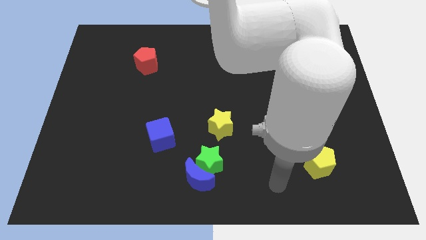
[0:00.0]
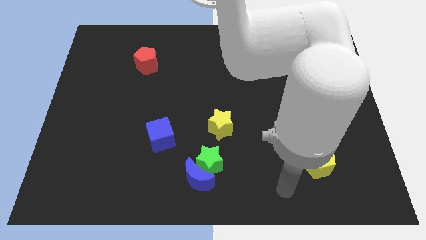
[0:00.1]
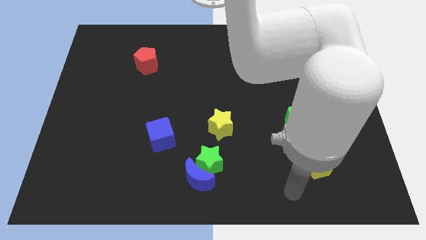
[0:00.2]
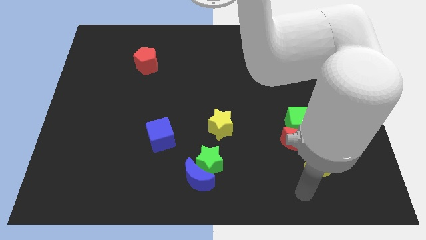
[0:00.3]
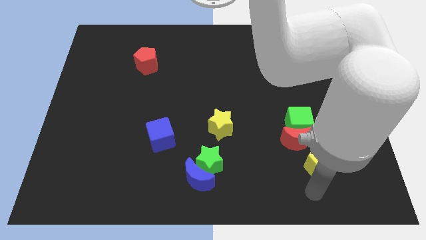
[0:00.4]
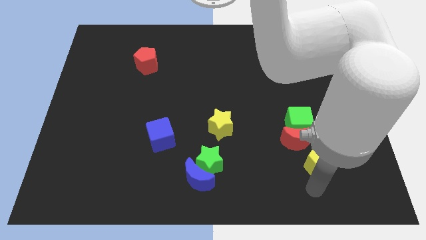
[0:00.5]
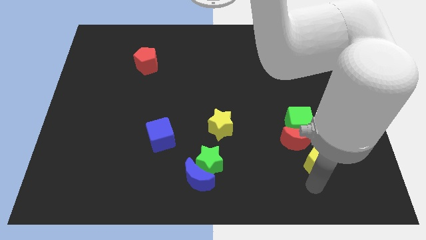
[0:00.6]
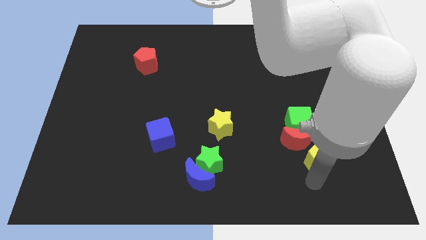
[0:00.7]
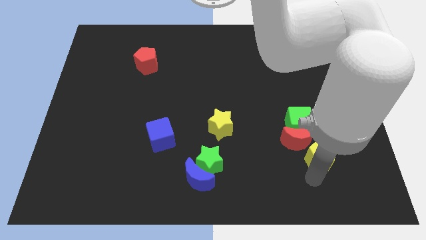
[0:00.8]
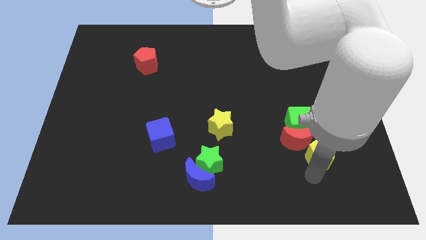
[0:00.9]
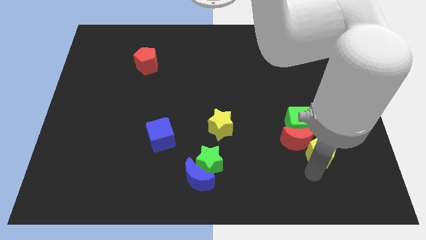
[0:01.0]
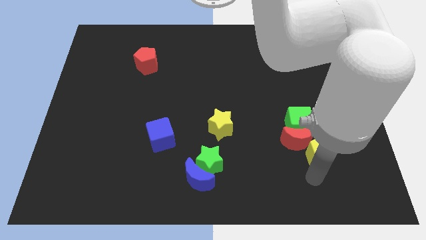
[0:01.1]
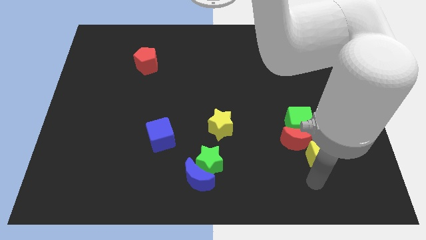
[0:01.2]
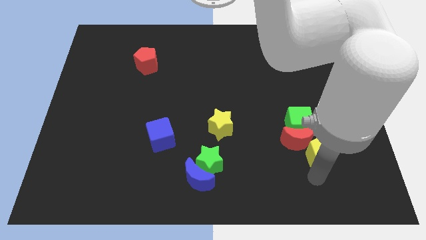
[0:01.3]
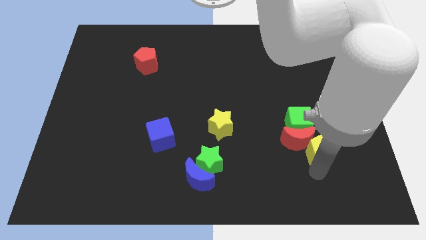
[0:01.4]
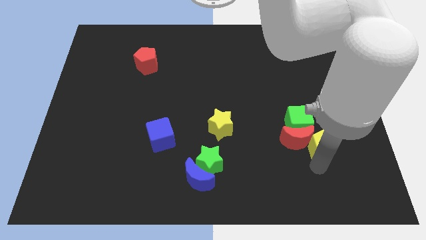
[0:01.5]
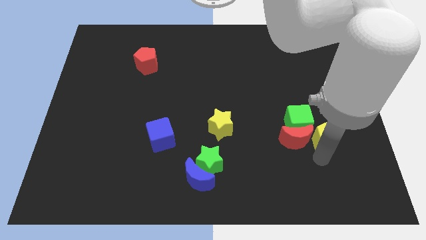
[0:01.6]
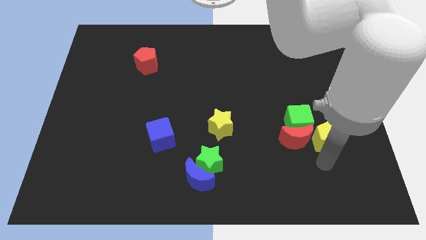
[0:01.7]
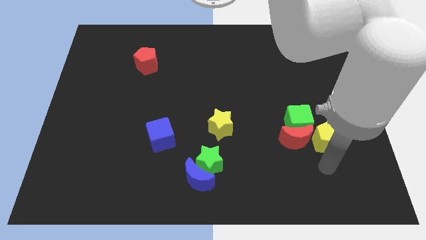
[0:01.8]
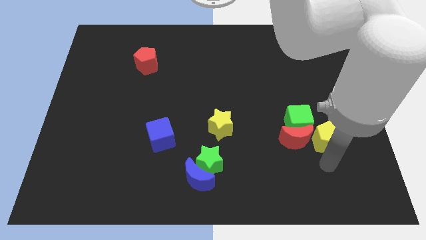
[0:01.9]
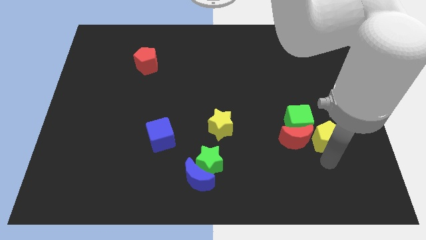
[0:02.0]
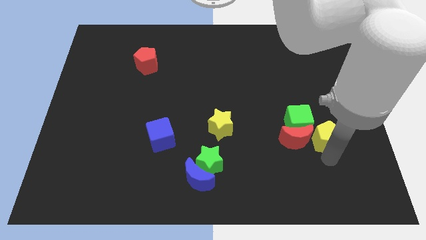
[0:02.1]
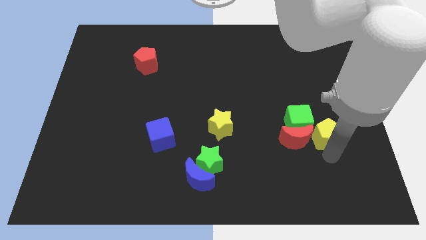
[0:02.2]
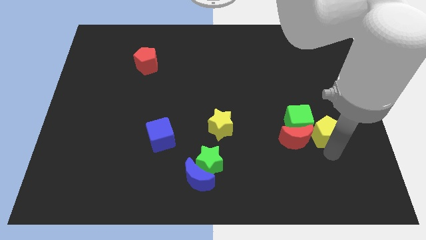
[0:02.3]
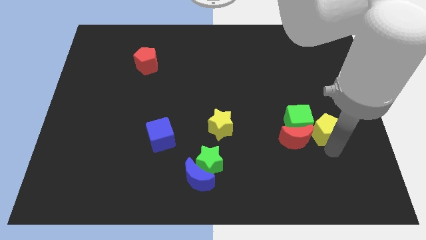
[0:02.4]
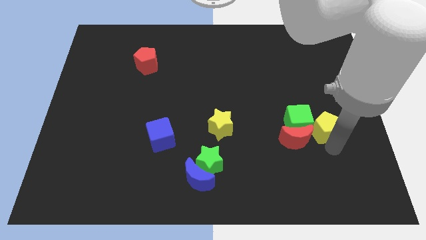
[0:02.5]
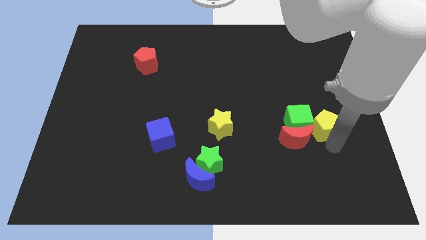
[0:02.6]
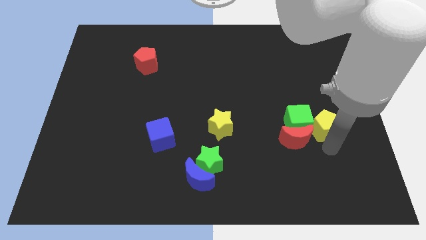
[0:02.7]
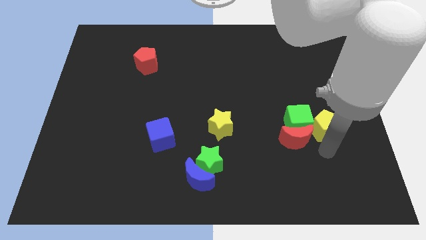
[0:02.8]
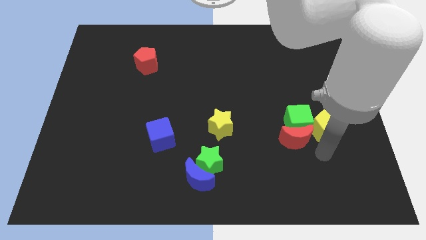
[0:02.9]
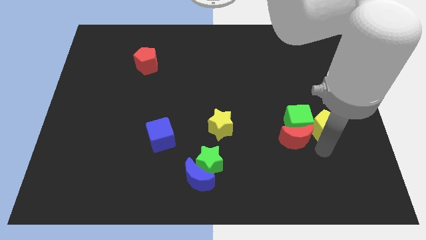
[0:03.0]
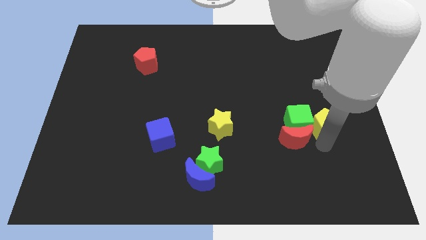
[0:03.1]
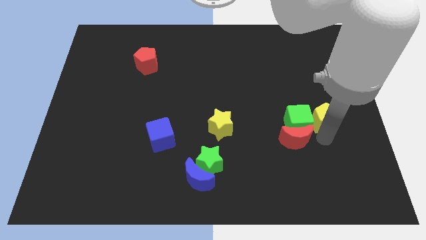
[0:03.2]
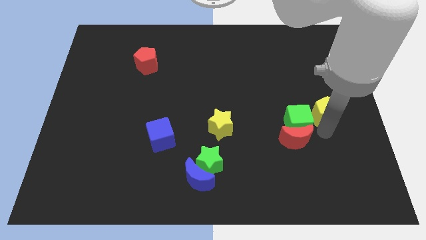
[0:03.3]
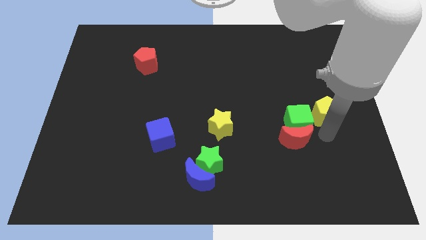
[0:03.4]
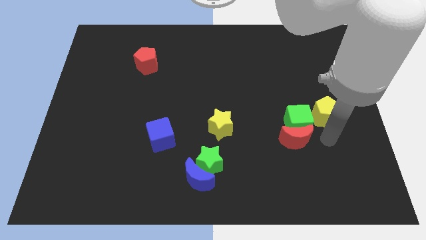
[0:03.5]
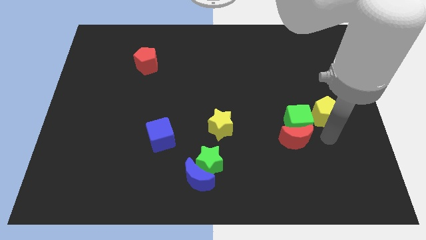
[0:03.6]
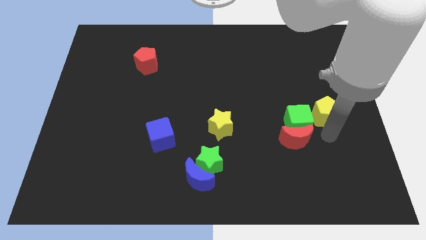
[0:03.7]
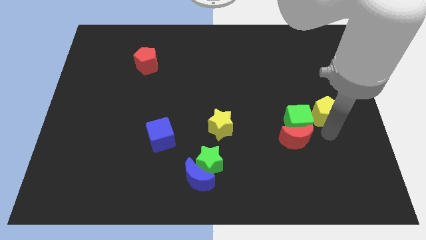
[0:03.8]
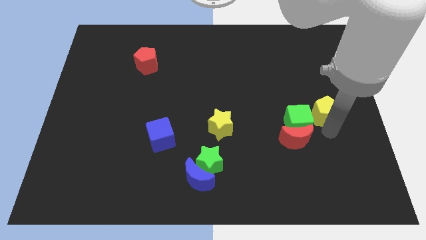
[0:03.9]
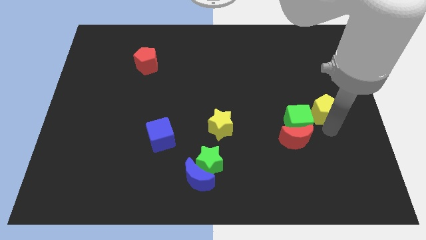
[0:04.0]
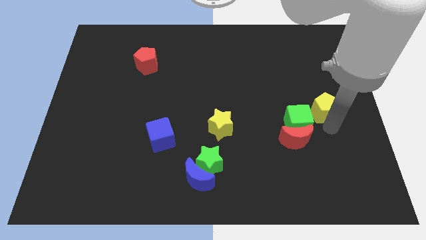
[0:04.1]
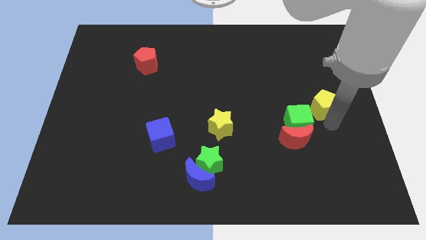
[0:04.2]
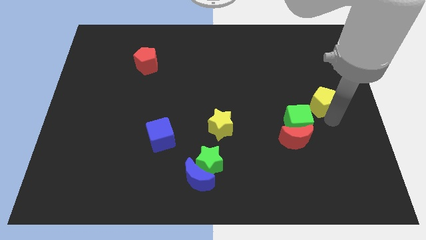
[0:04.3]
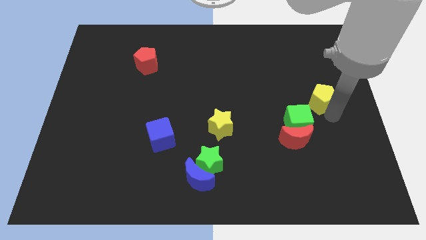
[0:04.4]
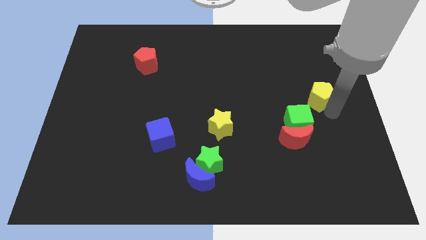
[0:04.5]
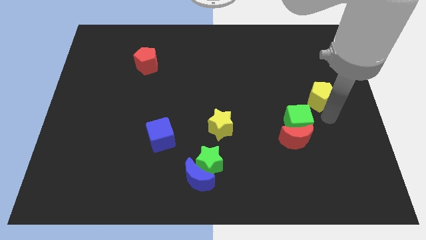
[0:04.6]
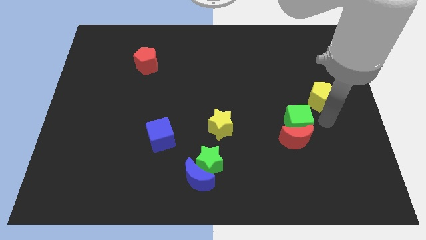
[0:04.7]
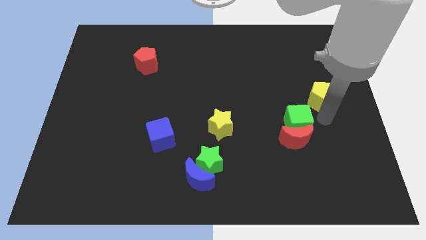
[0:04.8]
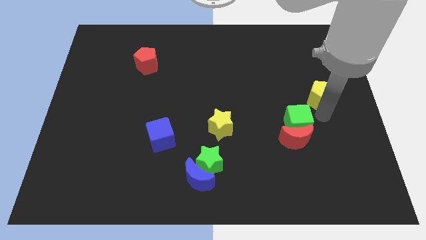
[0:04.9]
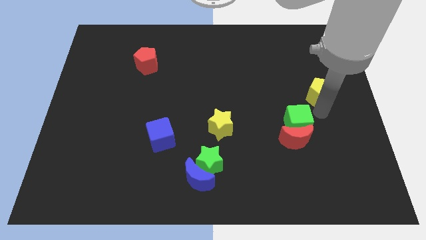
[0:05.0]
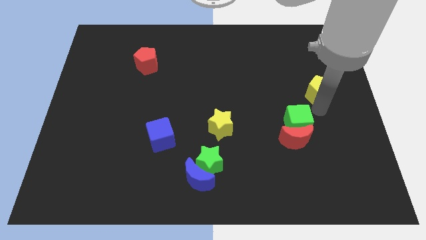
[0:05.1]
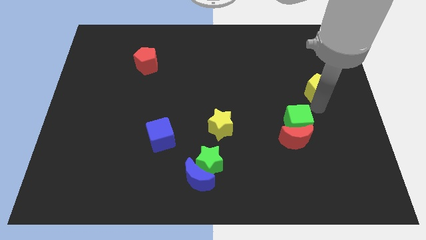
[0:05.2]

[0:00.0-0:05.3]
move the yellow pentagon upwards

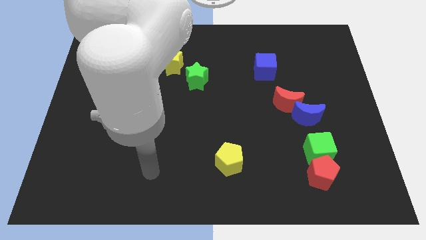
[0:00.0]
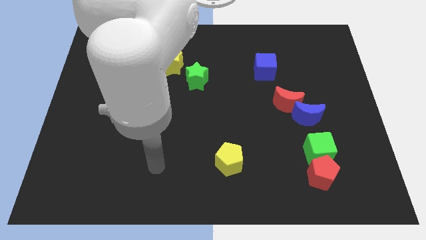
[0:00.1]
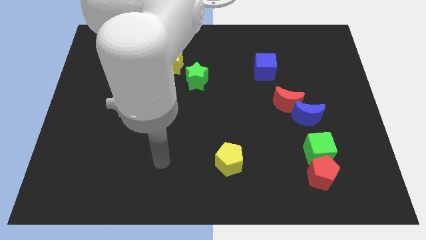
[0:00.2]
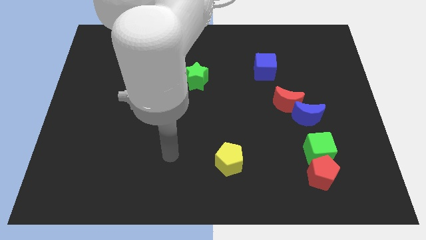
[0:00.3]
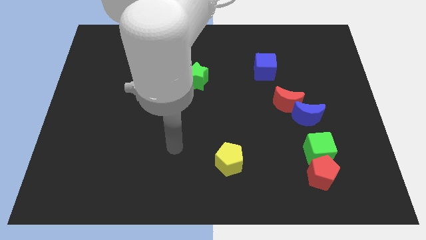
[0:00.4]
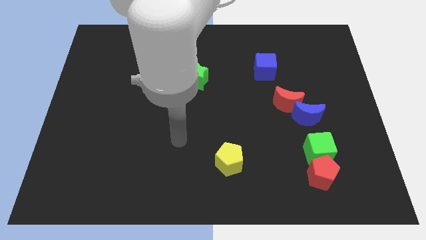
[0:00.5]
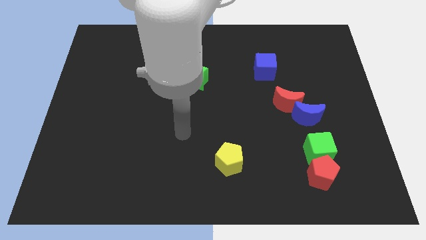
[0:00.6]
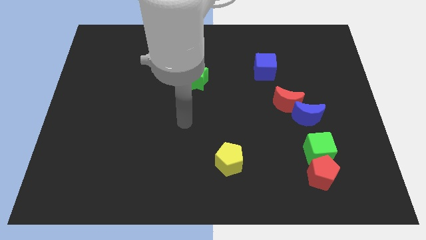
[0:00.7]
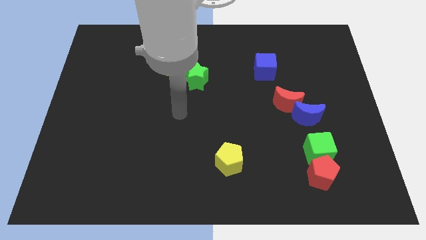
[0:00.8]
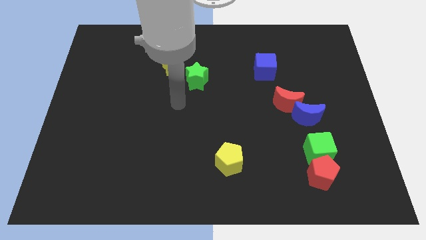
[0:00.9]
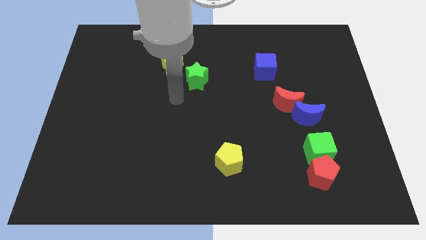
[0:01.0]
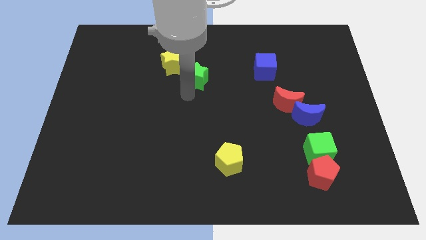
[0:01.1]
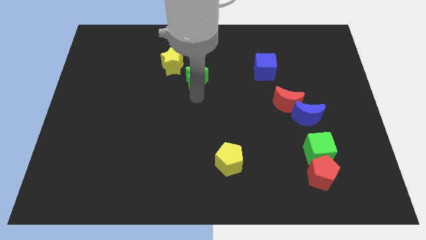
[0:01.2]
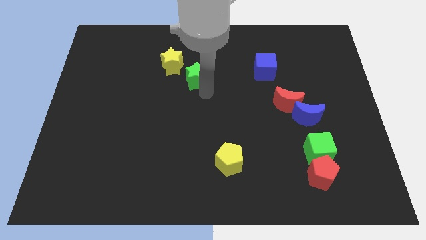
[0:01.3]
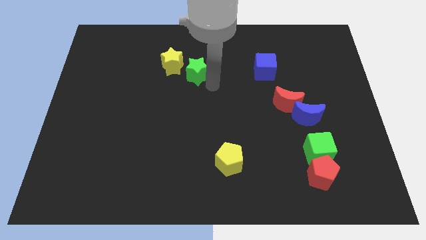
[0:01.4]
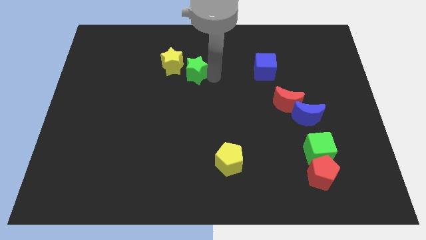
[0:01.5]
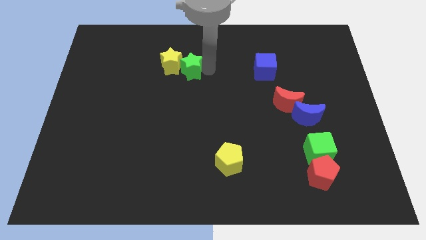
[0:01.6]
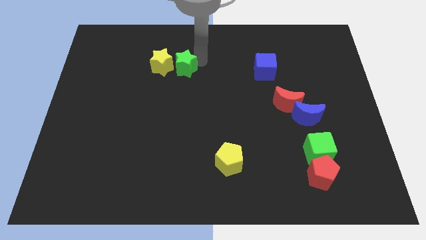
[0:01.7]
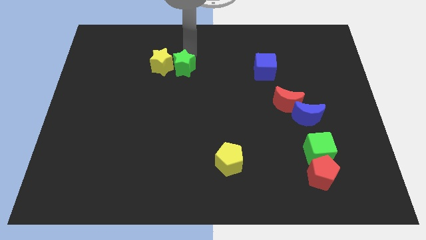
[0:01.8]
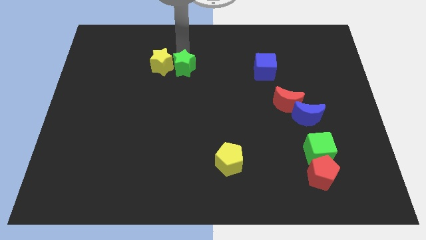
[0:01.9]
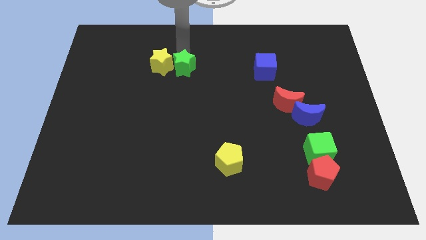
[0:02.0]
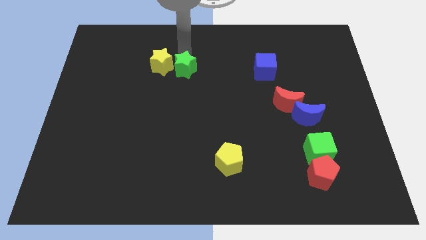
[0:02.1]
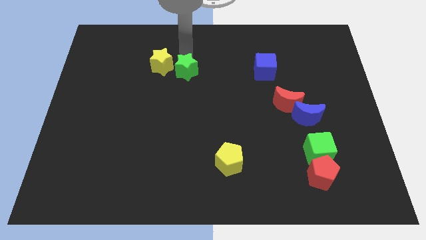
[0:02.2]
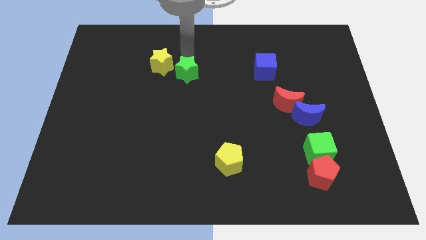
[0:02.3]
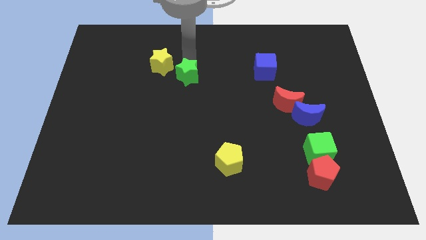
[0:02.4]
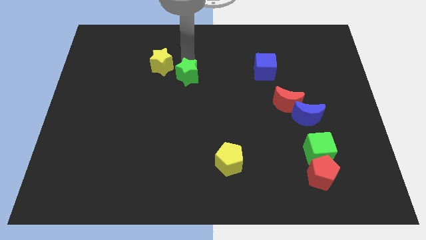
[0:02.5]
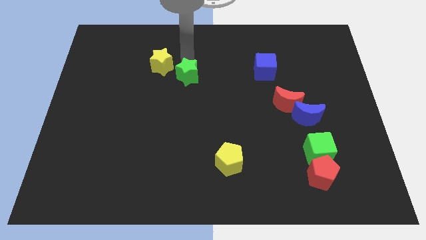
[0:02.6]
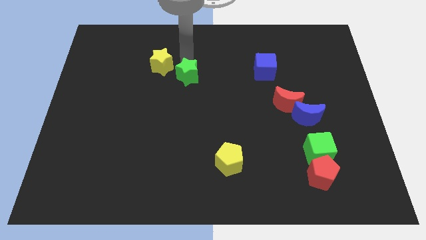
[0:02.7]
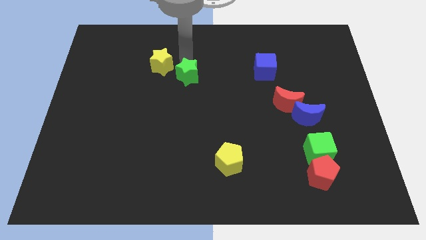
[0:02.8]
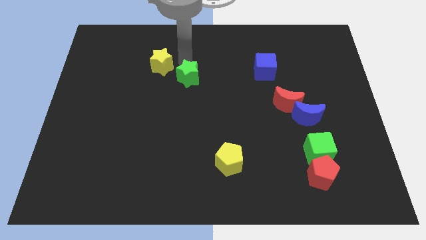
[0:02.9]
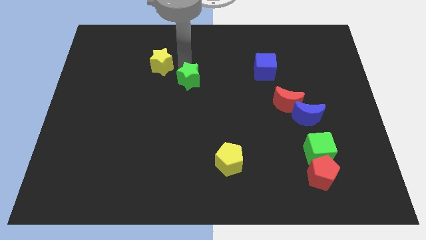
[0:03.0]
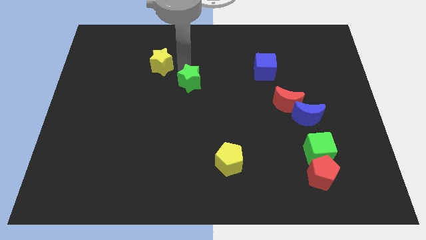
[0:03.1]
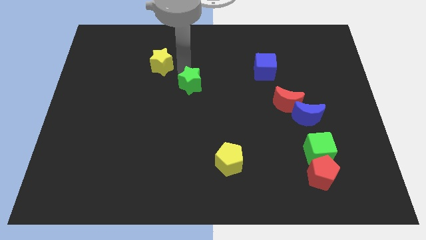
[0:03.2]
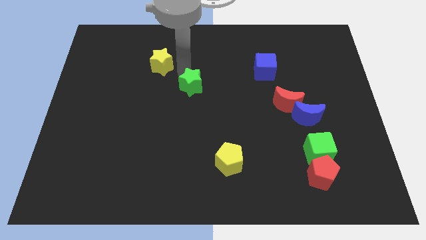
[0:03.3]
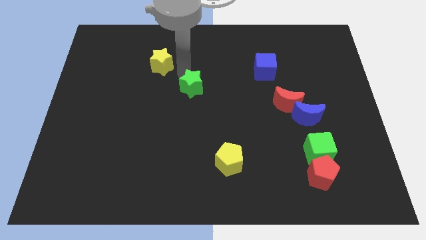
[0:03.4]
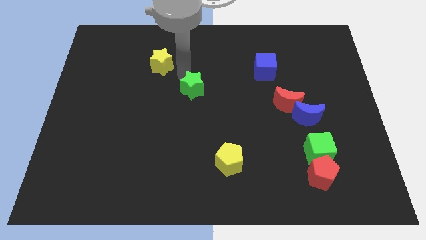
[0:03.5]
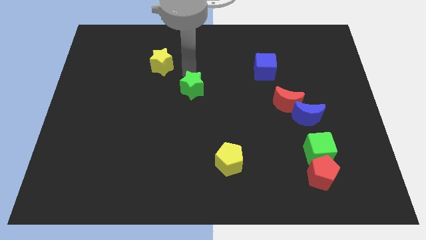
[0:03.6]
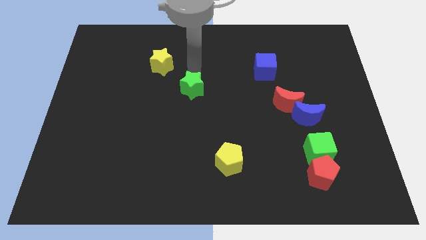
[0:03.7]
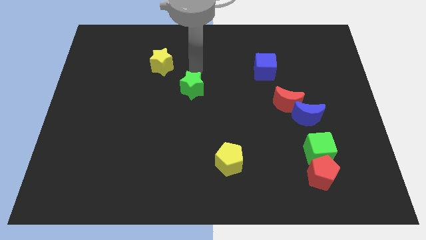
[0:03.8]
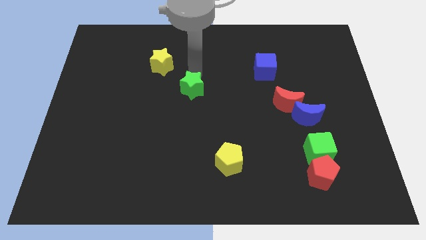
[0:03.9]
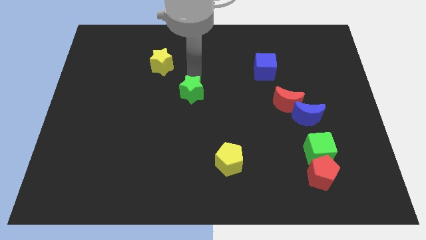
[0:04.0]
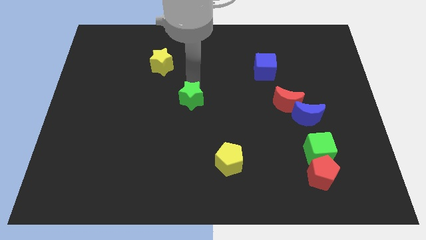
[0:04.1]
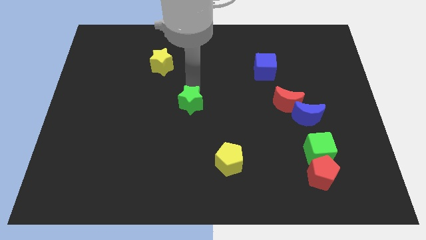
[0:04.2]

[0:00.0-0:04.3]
slide the green star somewhat down
